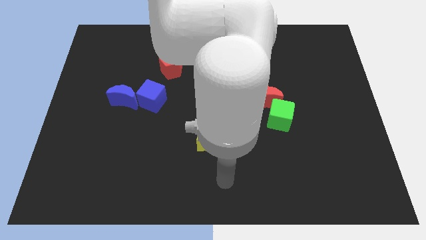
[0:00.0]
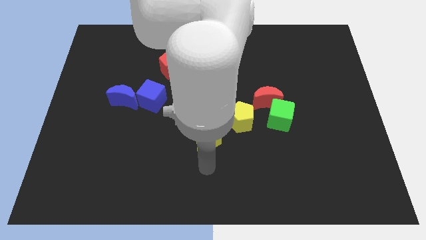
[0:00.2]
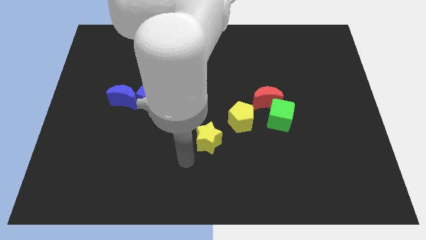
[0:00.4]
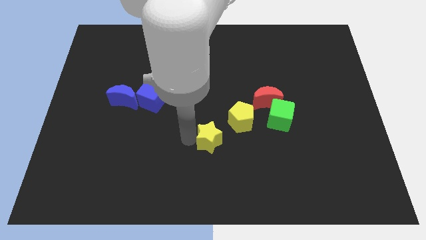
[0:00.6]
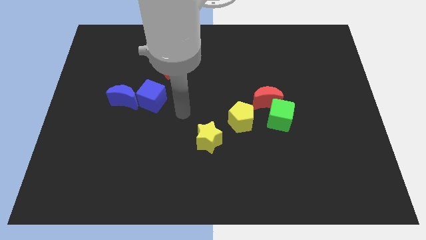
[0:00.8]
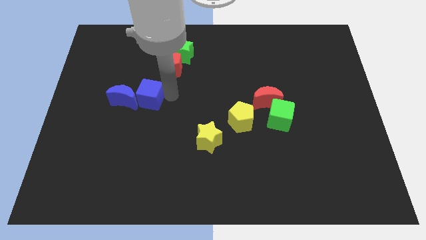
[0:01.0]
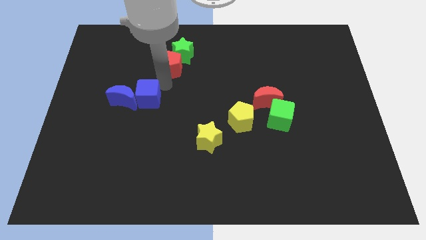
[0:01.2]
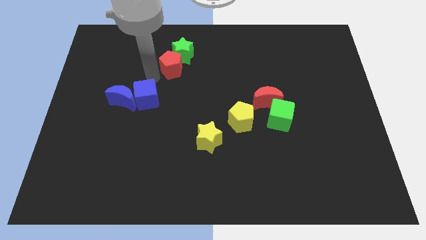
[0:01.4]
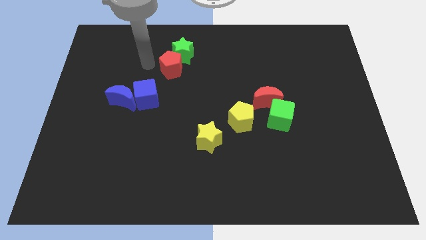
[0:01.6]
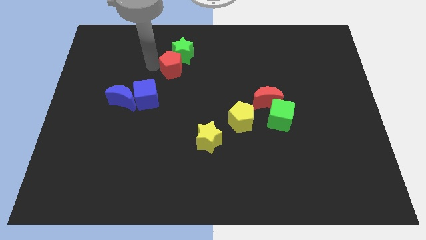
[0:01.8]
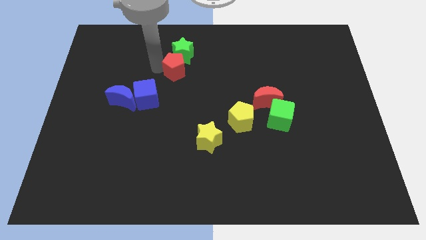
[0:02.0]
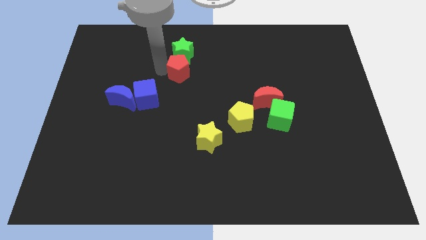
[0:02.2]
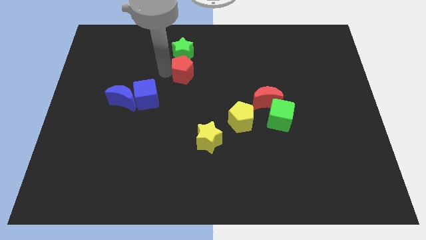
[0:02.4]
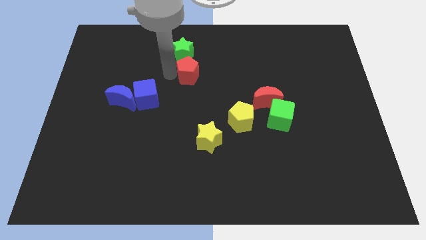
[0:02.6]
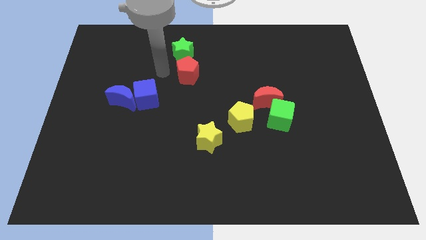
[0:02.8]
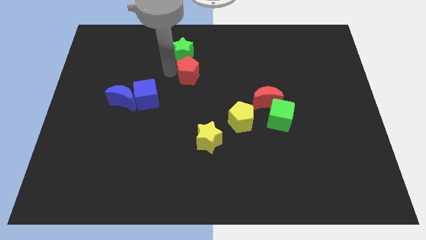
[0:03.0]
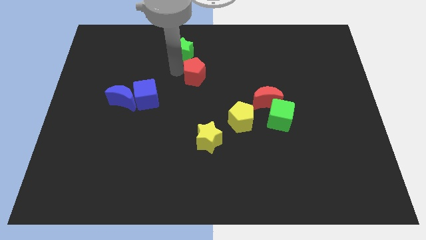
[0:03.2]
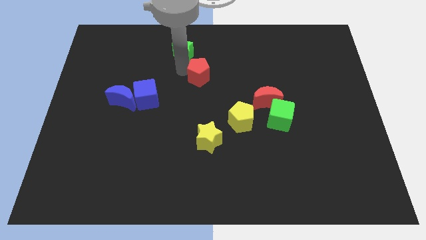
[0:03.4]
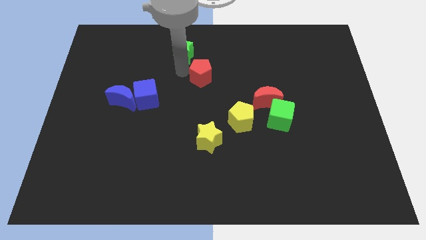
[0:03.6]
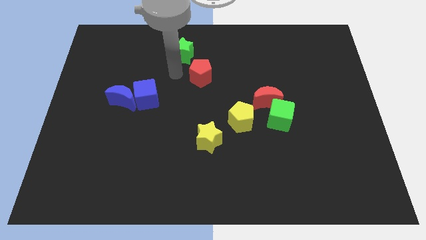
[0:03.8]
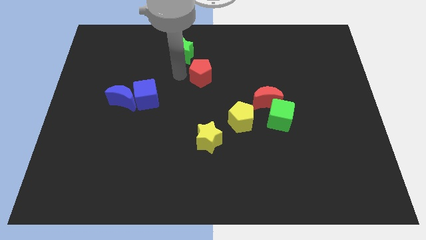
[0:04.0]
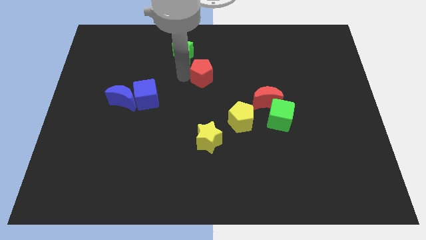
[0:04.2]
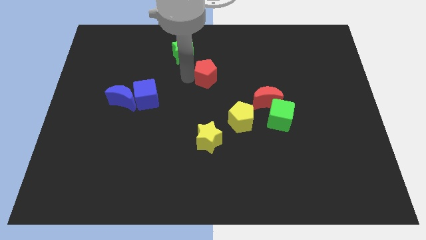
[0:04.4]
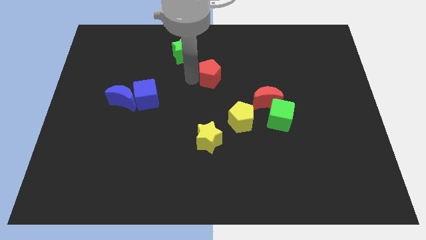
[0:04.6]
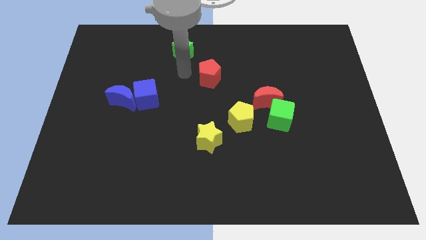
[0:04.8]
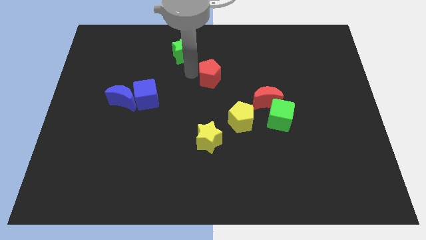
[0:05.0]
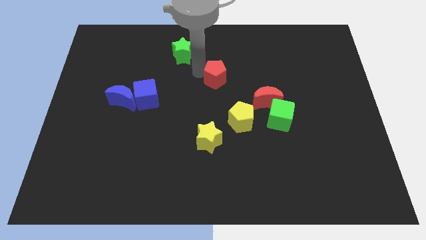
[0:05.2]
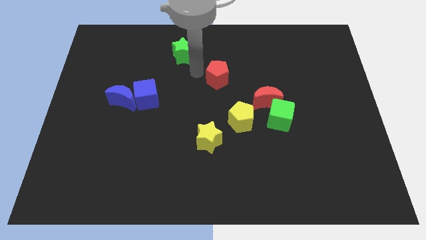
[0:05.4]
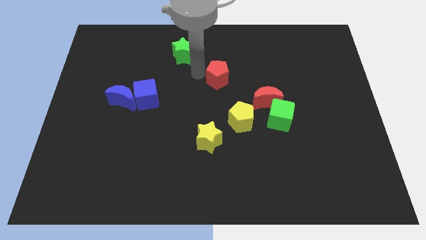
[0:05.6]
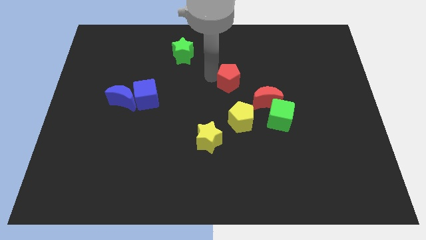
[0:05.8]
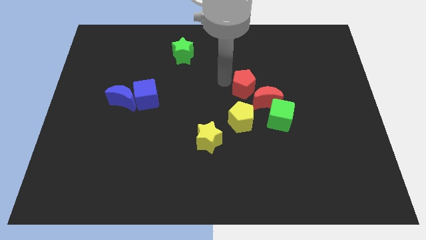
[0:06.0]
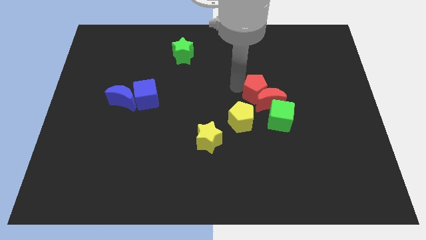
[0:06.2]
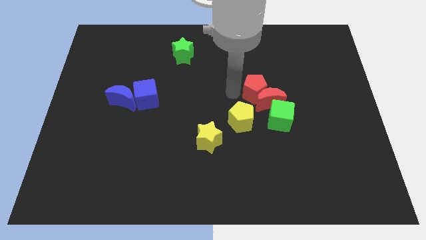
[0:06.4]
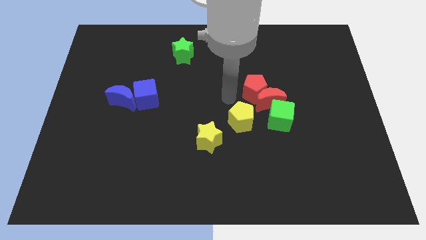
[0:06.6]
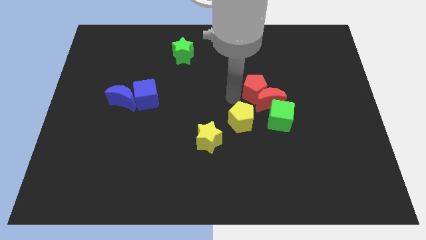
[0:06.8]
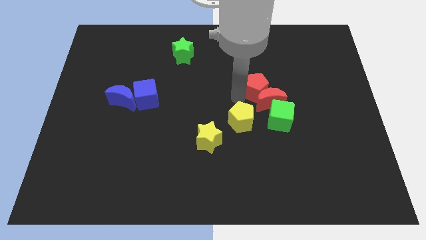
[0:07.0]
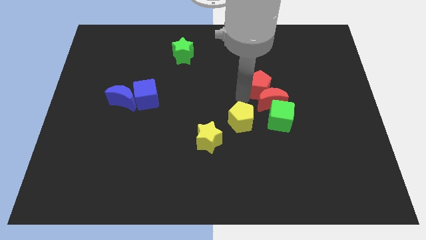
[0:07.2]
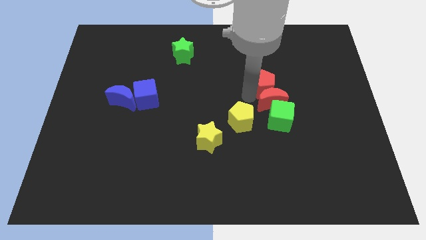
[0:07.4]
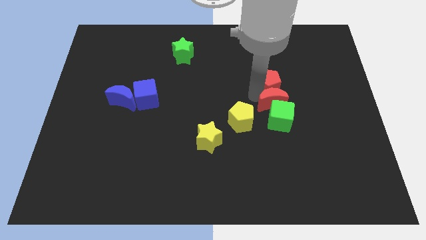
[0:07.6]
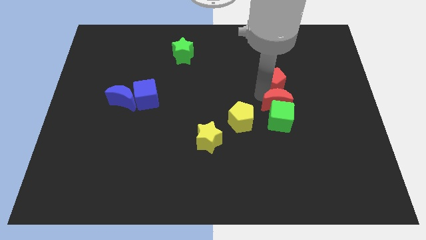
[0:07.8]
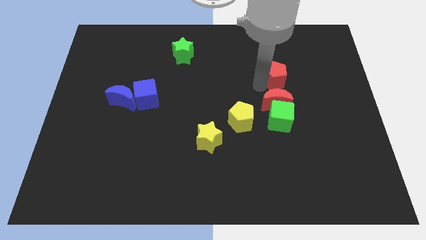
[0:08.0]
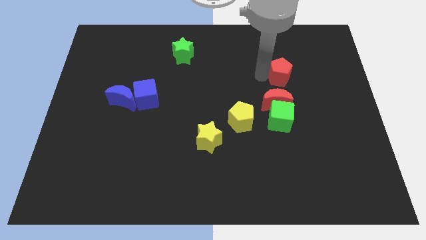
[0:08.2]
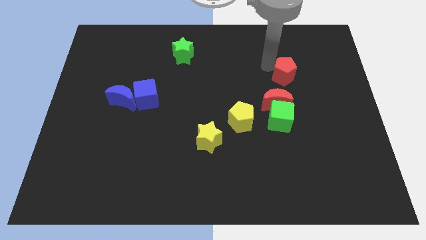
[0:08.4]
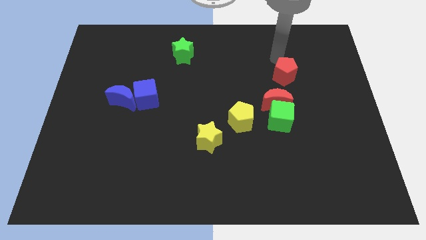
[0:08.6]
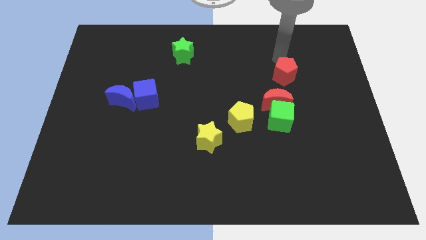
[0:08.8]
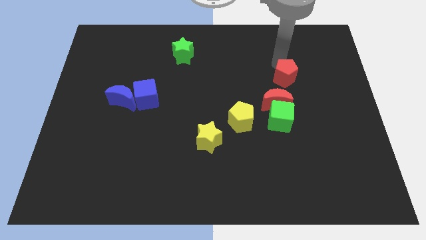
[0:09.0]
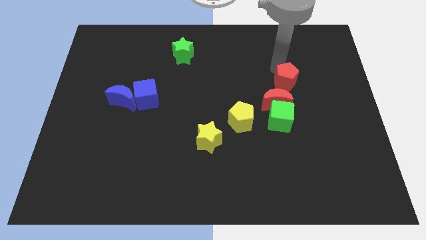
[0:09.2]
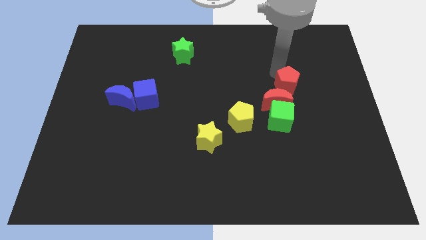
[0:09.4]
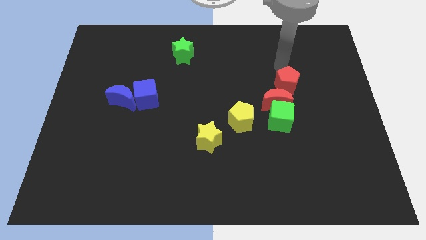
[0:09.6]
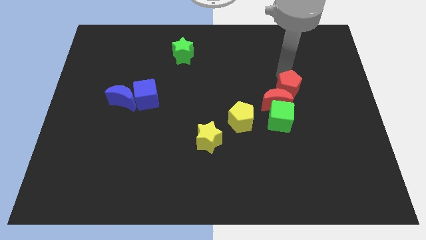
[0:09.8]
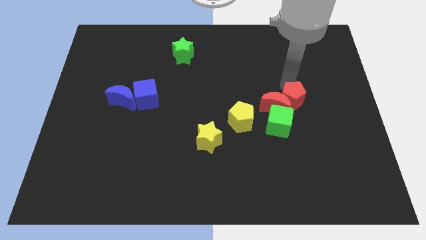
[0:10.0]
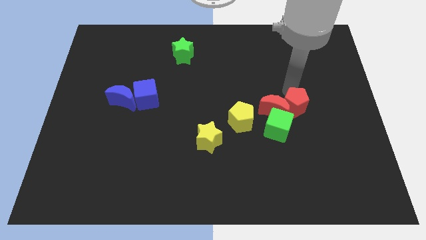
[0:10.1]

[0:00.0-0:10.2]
slide the red pentagon right of the yellow pentagon

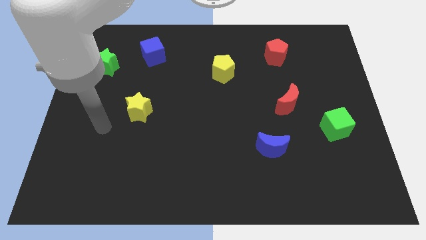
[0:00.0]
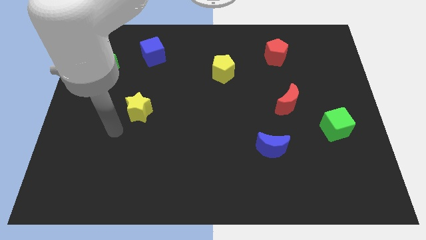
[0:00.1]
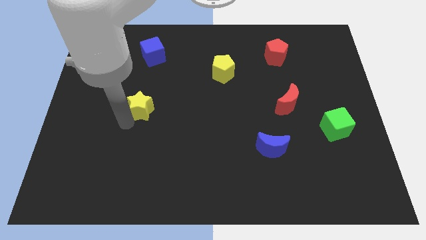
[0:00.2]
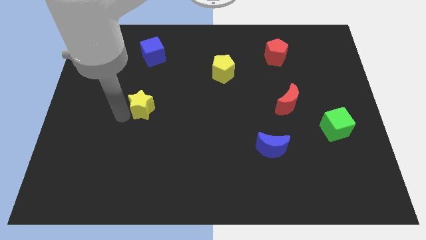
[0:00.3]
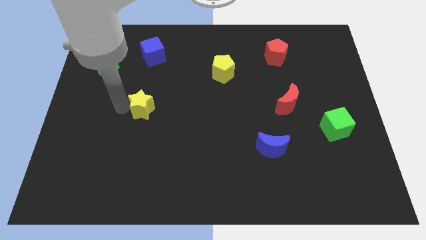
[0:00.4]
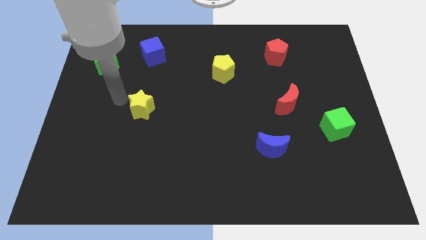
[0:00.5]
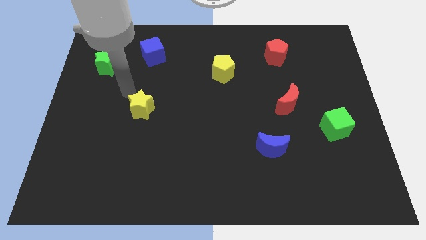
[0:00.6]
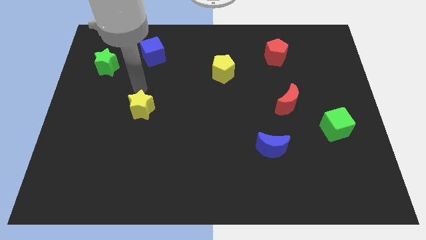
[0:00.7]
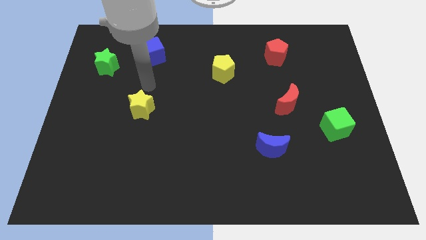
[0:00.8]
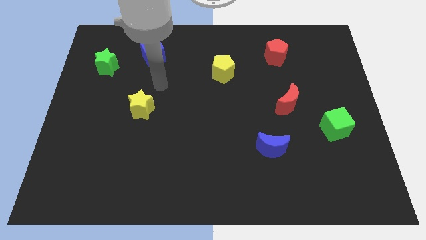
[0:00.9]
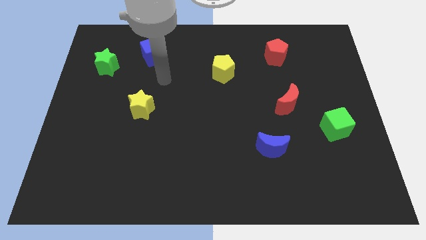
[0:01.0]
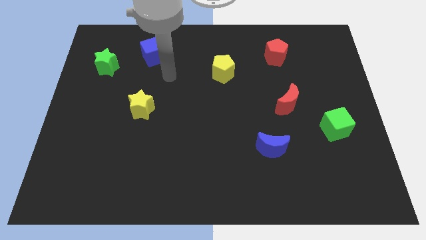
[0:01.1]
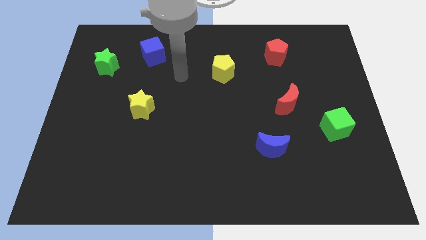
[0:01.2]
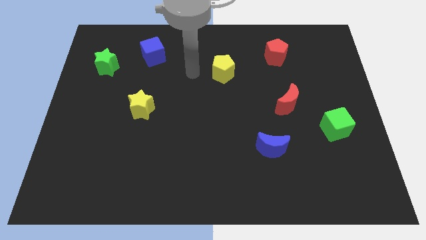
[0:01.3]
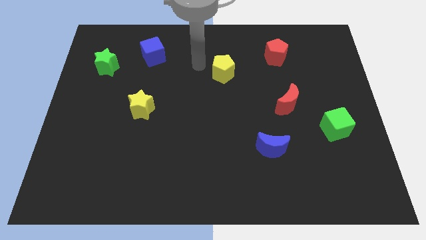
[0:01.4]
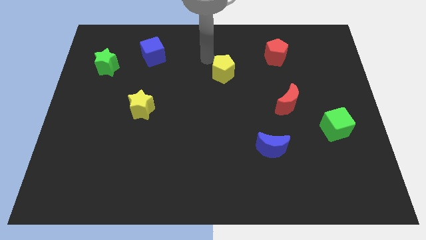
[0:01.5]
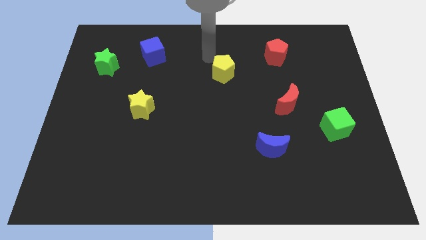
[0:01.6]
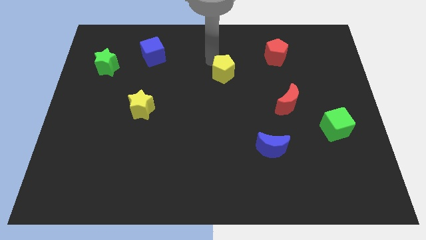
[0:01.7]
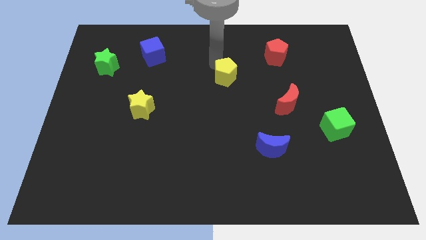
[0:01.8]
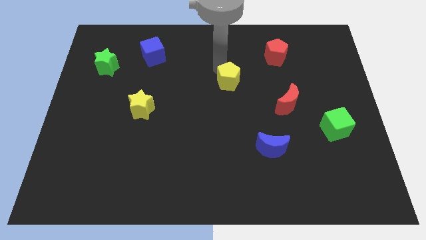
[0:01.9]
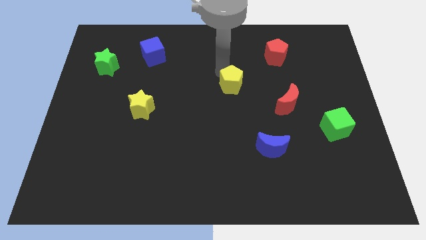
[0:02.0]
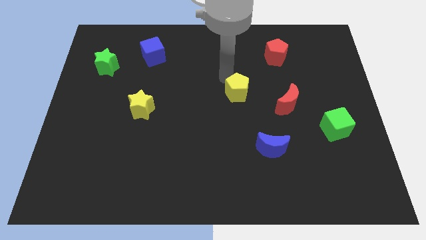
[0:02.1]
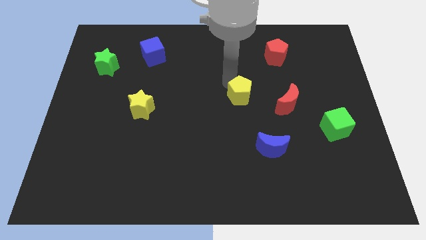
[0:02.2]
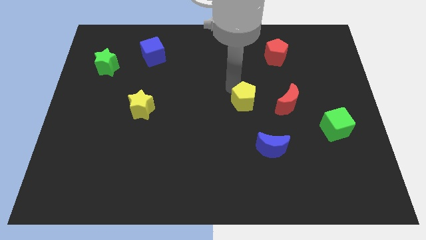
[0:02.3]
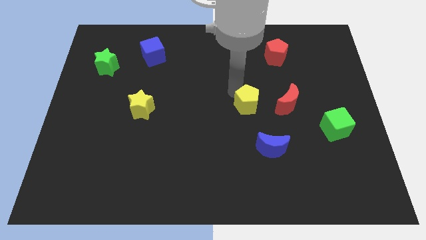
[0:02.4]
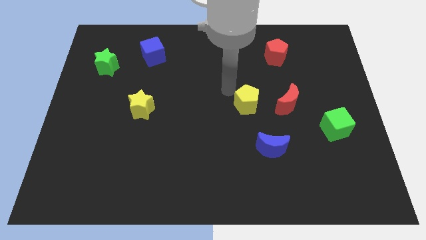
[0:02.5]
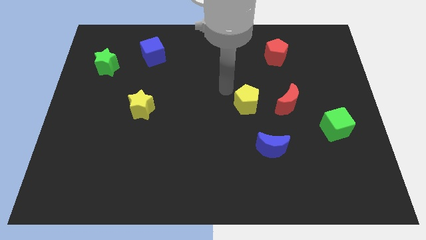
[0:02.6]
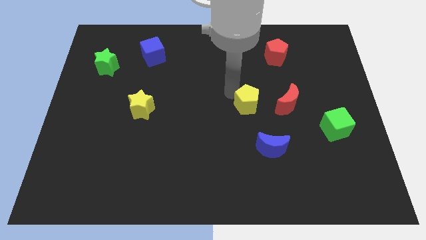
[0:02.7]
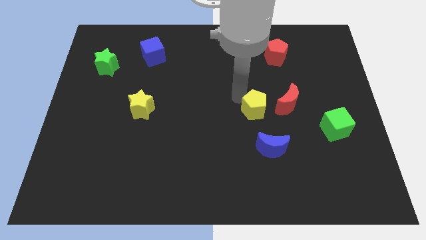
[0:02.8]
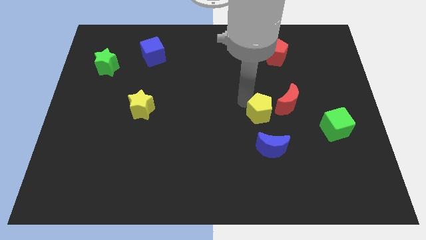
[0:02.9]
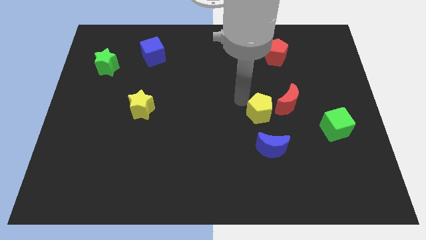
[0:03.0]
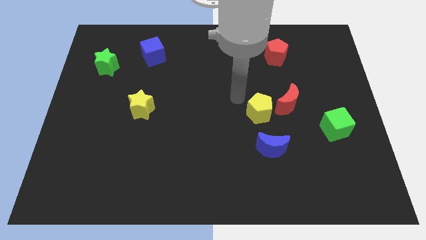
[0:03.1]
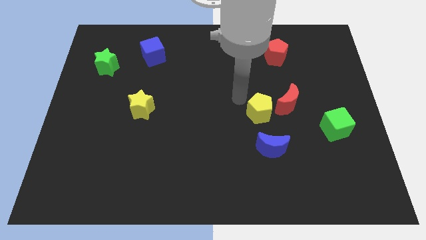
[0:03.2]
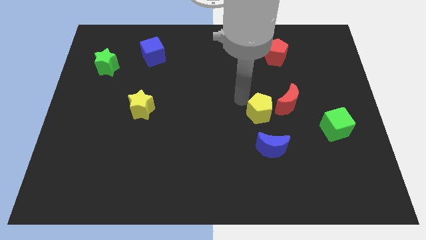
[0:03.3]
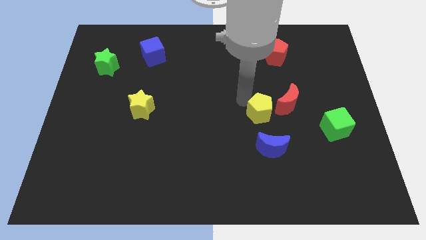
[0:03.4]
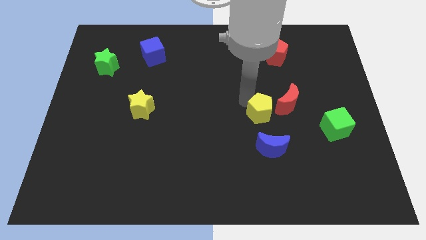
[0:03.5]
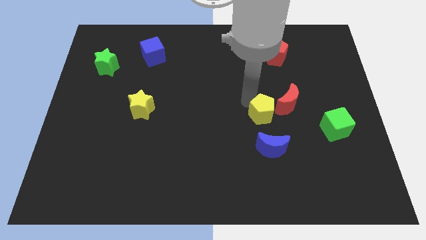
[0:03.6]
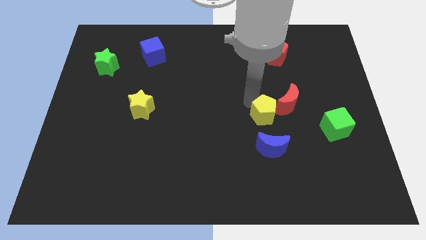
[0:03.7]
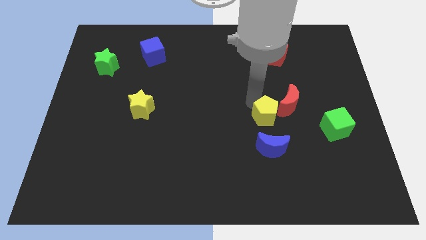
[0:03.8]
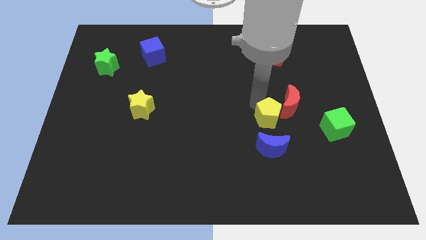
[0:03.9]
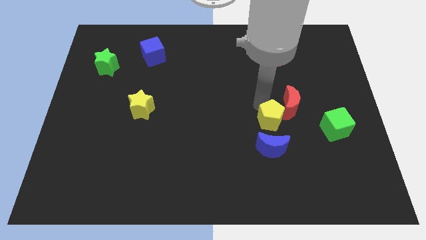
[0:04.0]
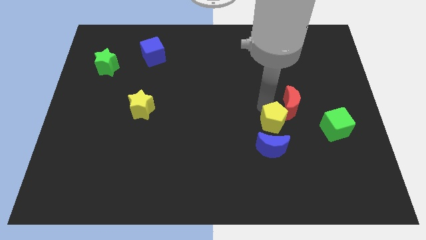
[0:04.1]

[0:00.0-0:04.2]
put the yellow pentagon to the bottom of the red moon
